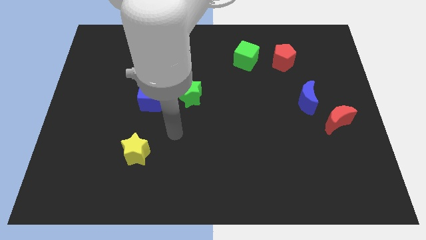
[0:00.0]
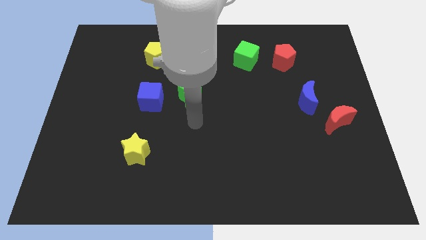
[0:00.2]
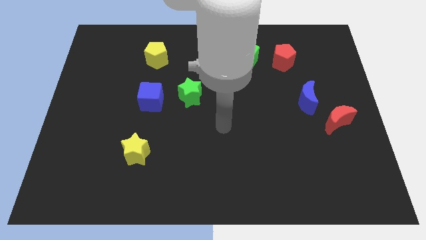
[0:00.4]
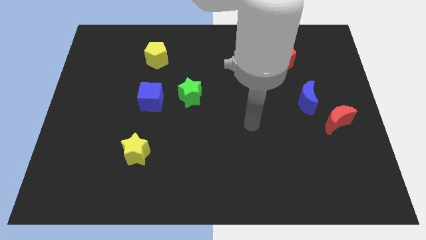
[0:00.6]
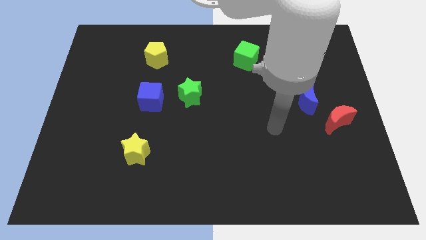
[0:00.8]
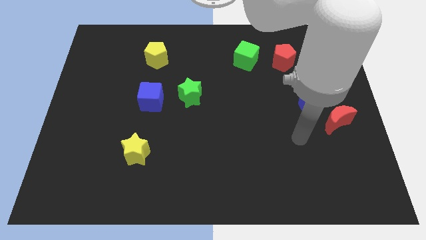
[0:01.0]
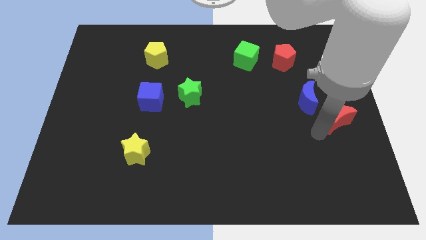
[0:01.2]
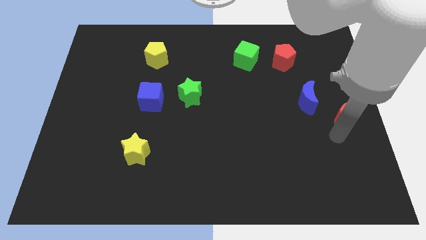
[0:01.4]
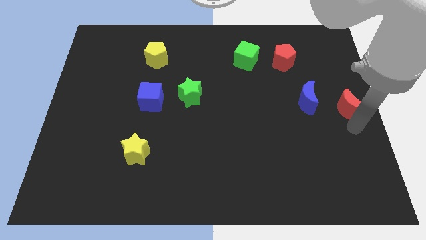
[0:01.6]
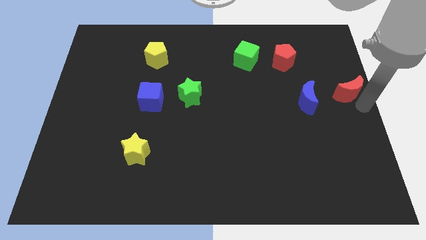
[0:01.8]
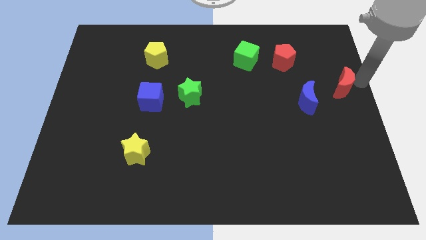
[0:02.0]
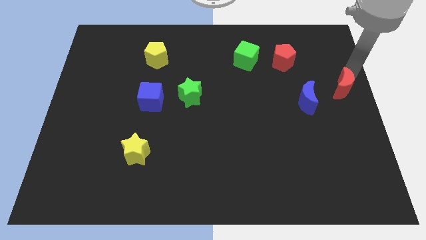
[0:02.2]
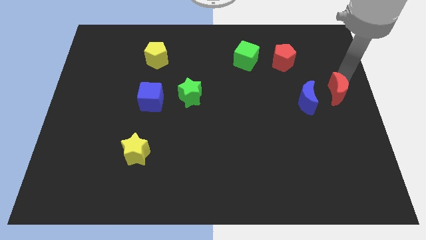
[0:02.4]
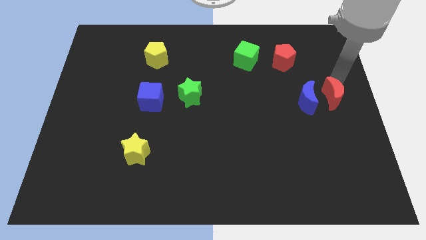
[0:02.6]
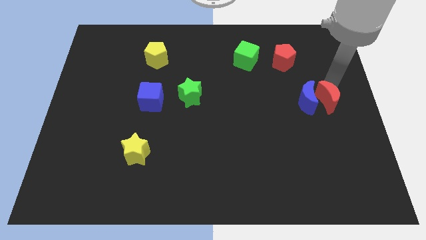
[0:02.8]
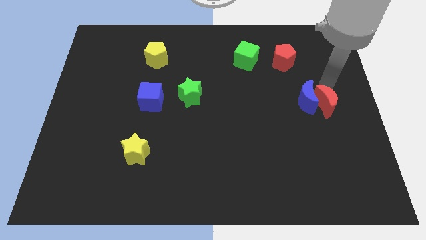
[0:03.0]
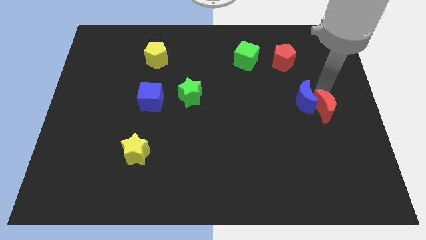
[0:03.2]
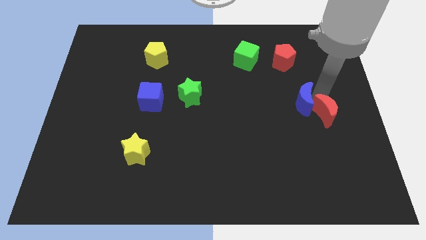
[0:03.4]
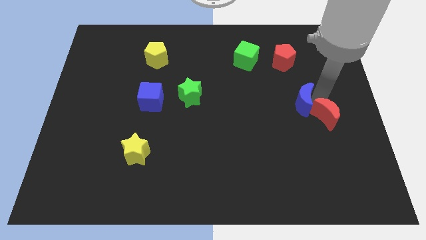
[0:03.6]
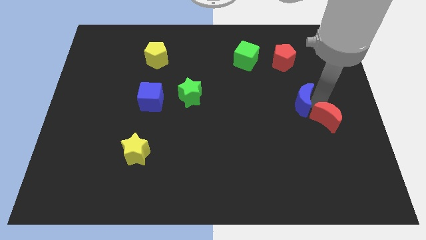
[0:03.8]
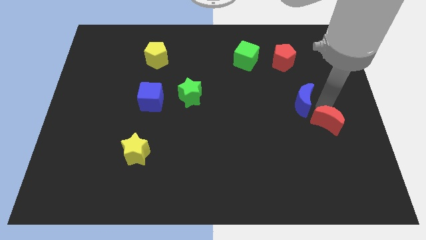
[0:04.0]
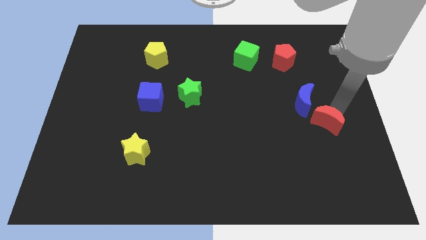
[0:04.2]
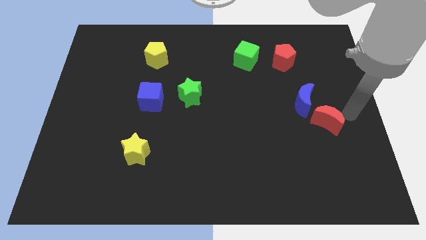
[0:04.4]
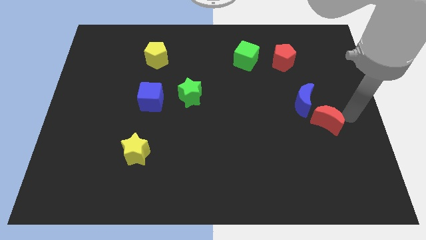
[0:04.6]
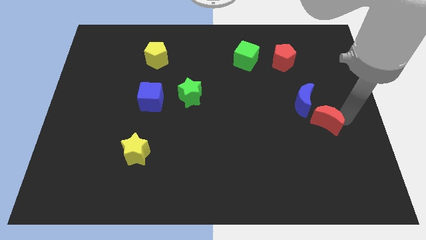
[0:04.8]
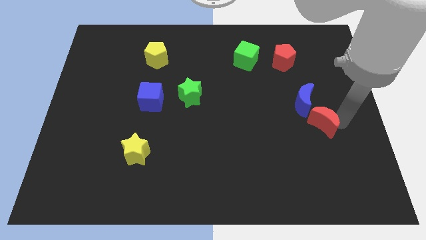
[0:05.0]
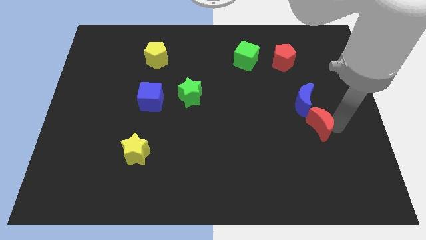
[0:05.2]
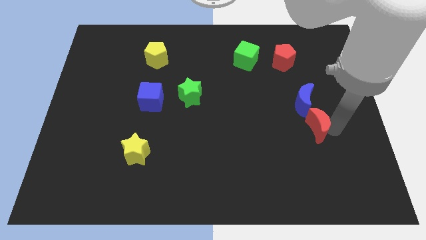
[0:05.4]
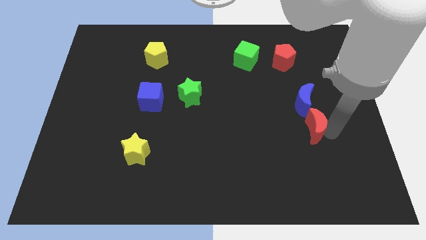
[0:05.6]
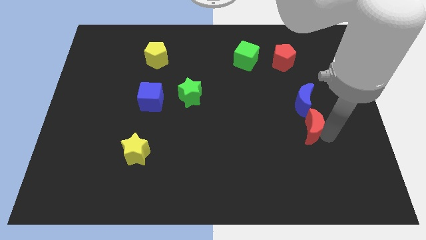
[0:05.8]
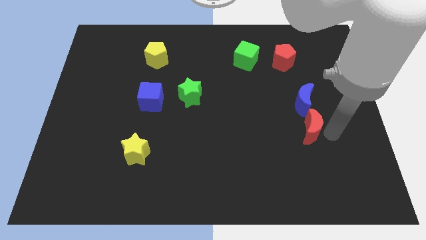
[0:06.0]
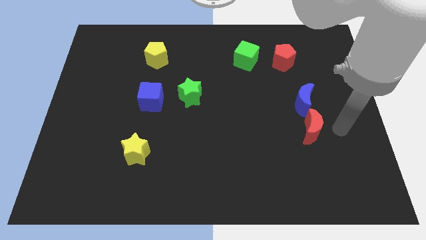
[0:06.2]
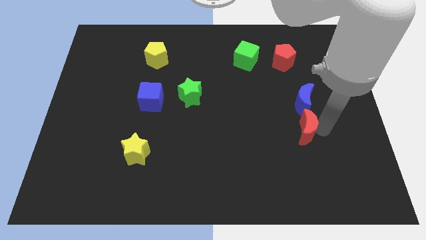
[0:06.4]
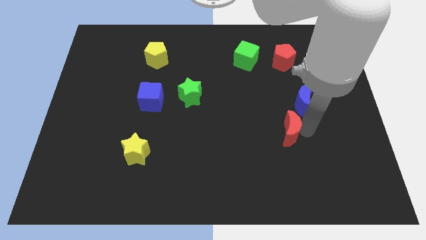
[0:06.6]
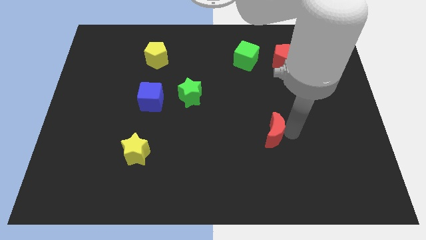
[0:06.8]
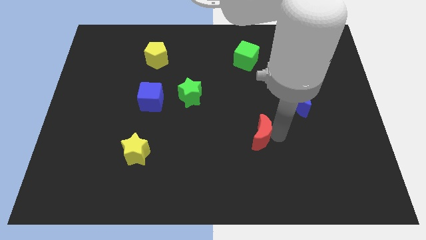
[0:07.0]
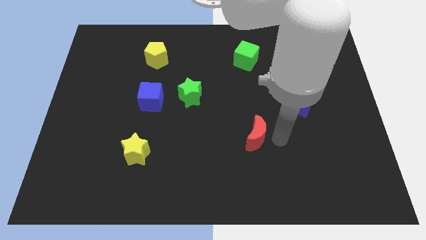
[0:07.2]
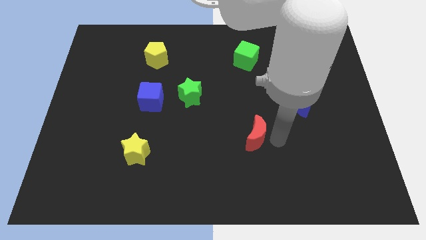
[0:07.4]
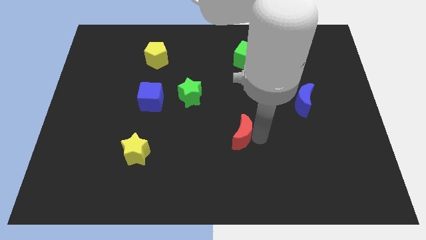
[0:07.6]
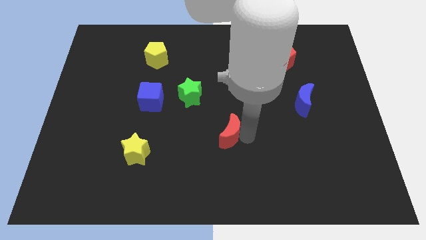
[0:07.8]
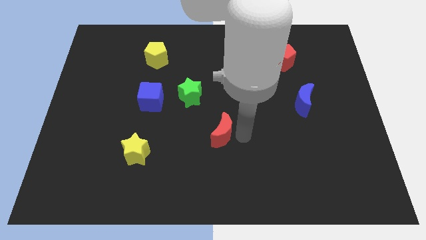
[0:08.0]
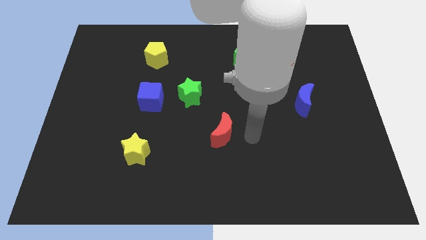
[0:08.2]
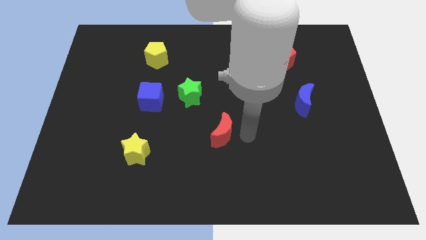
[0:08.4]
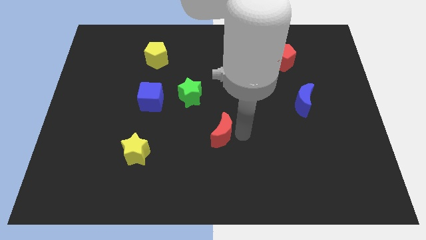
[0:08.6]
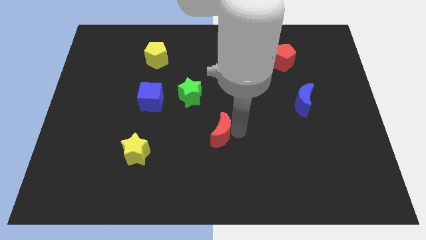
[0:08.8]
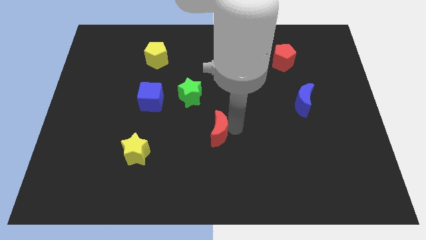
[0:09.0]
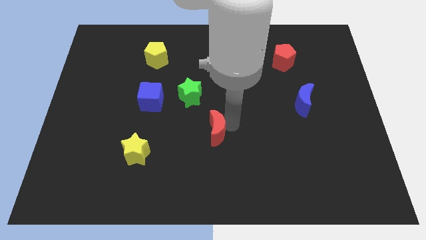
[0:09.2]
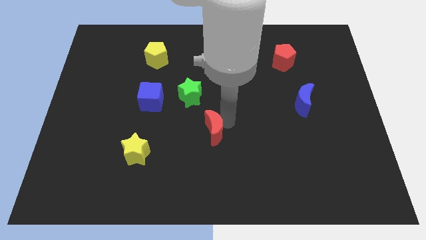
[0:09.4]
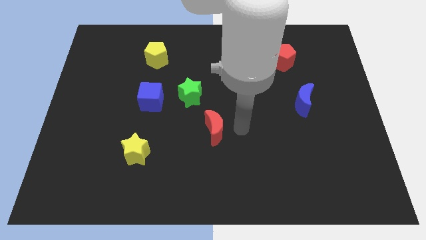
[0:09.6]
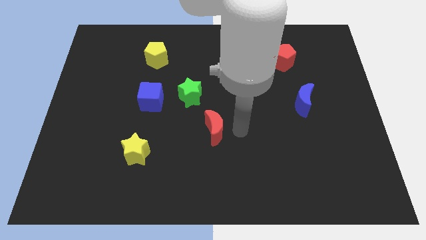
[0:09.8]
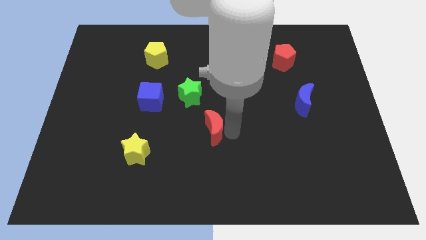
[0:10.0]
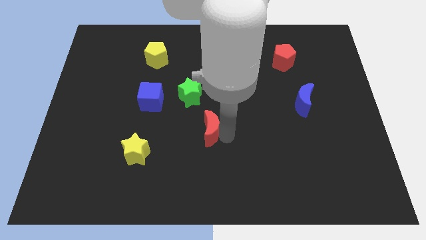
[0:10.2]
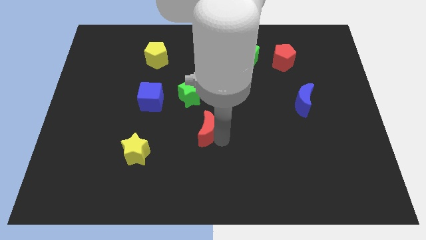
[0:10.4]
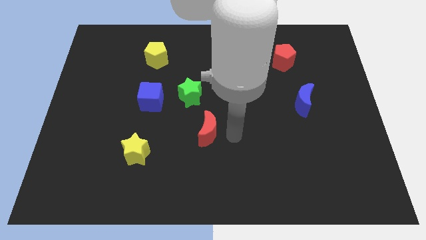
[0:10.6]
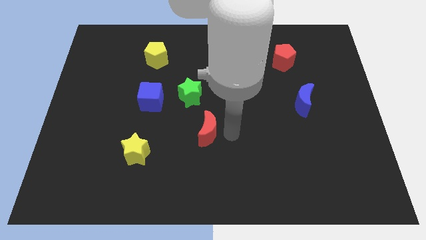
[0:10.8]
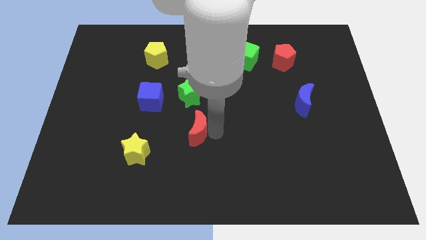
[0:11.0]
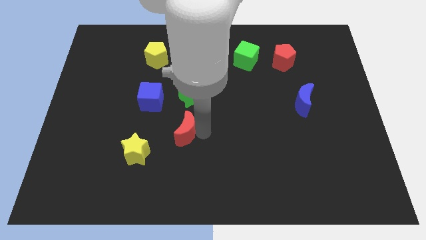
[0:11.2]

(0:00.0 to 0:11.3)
push the red moon diagonally up and to the right of the yellow star

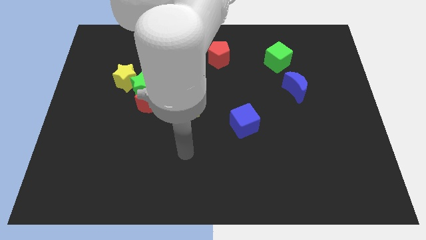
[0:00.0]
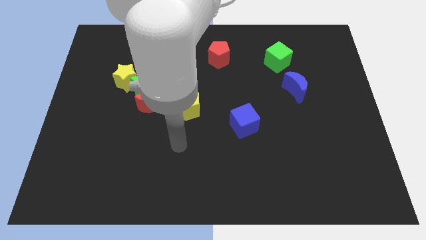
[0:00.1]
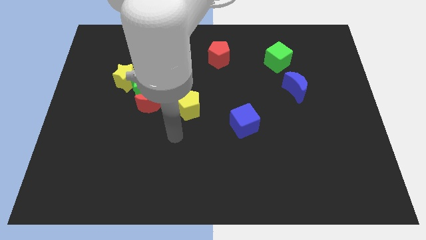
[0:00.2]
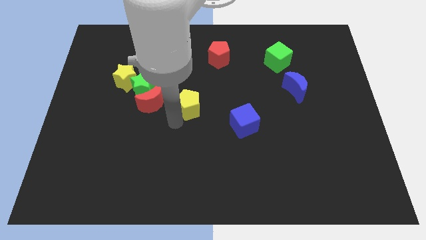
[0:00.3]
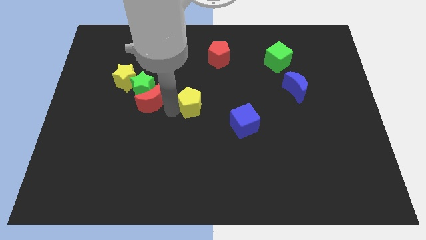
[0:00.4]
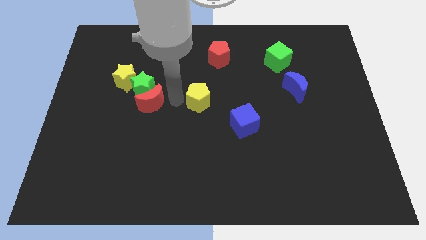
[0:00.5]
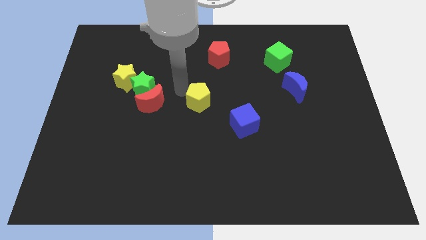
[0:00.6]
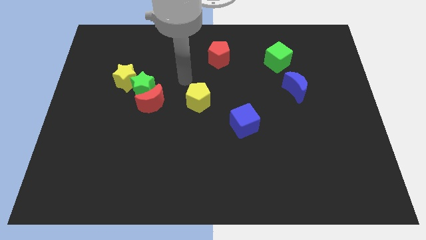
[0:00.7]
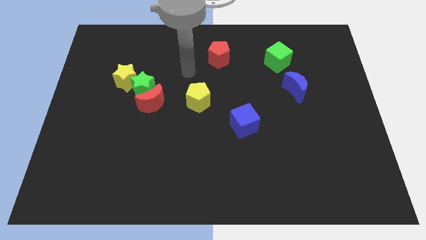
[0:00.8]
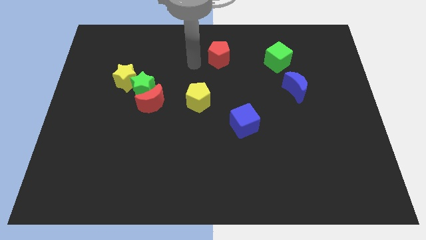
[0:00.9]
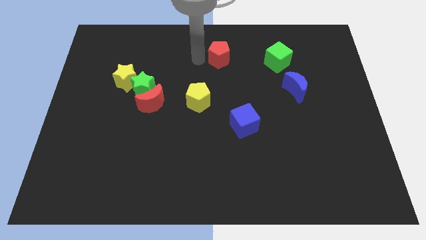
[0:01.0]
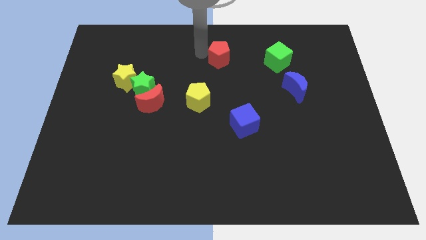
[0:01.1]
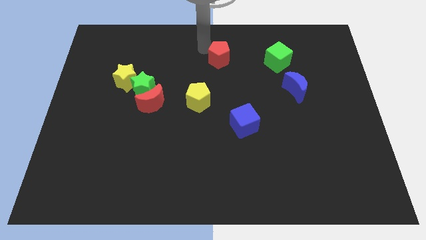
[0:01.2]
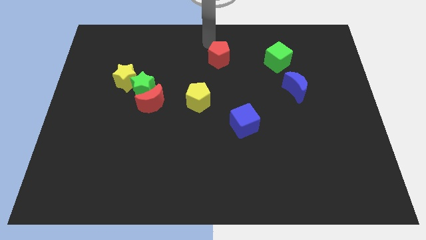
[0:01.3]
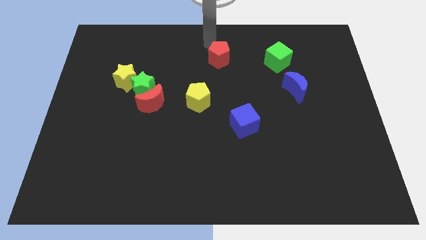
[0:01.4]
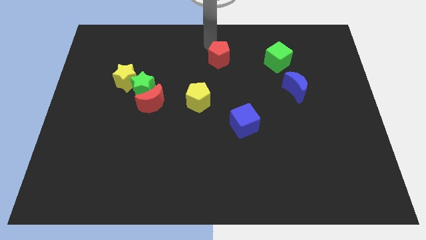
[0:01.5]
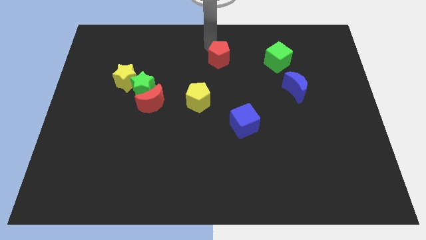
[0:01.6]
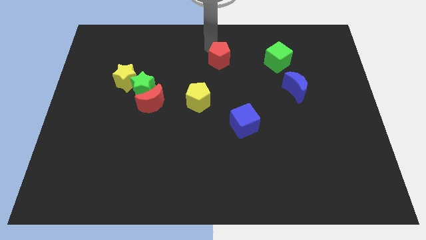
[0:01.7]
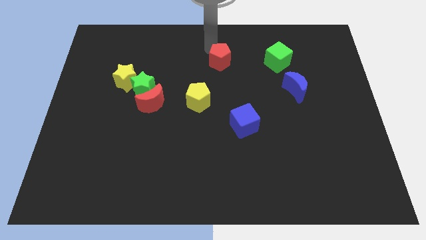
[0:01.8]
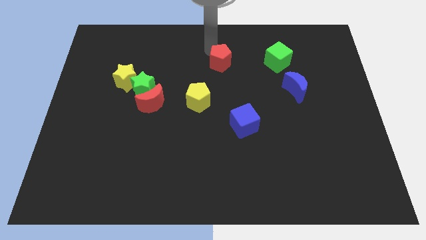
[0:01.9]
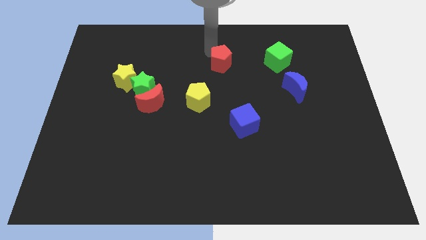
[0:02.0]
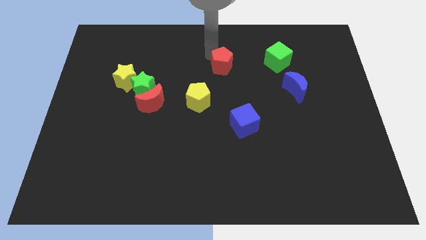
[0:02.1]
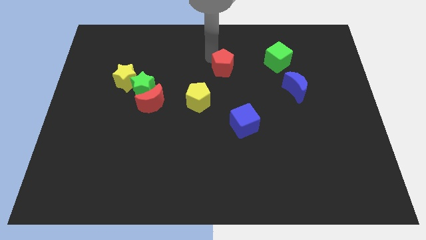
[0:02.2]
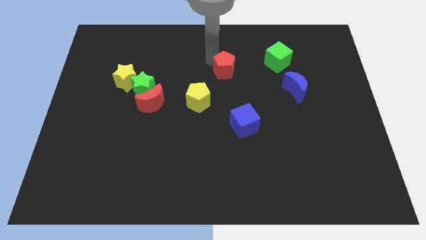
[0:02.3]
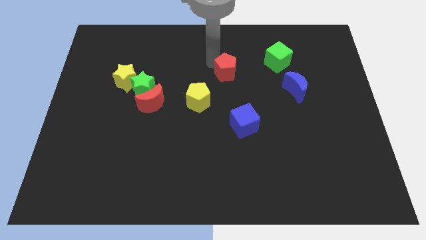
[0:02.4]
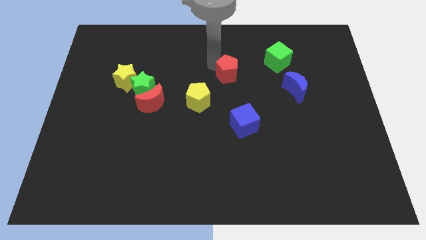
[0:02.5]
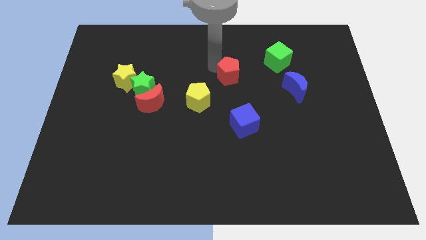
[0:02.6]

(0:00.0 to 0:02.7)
push the red pentagon to the top side of the blue cube
